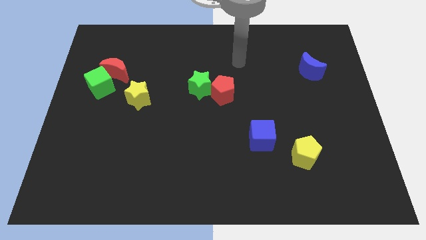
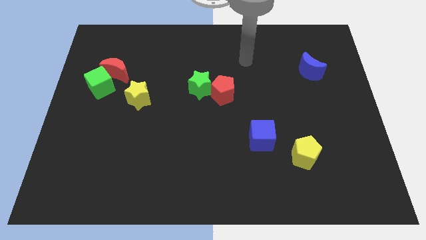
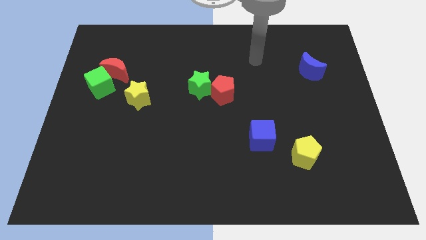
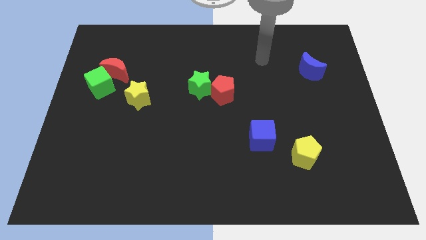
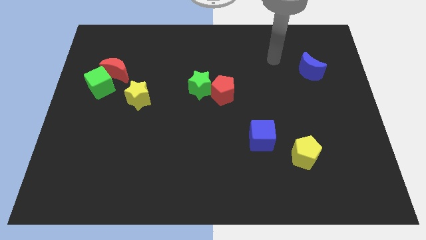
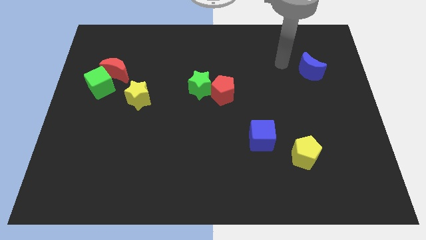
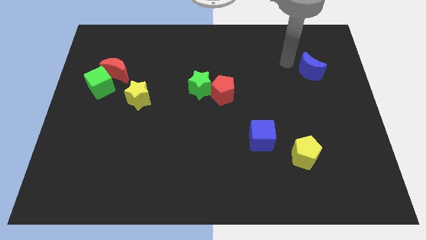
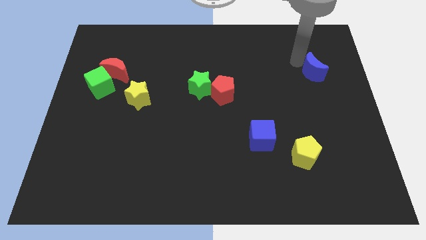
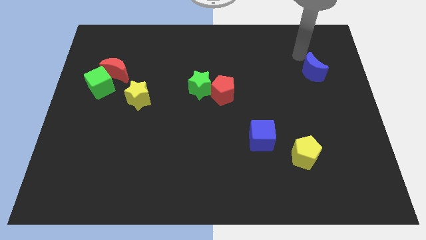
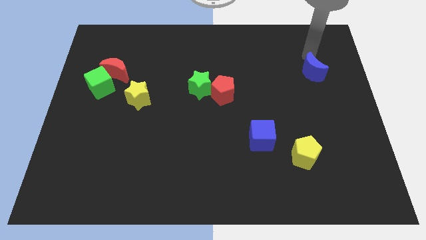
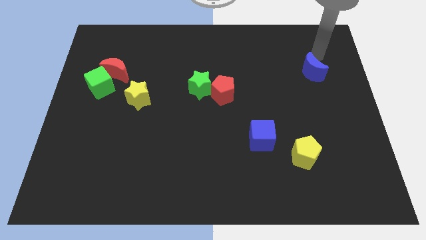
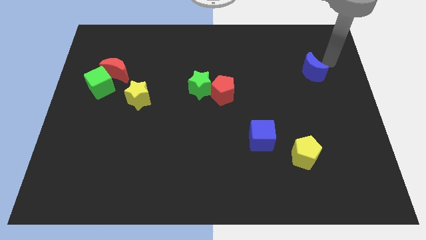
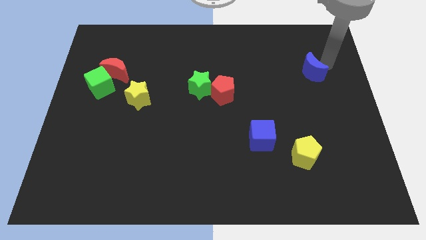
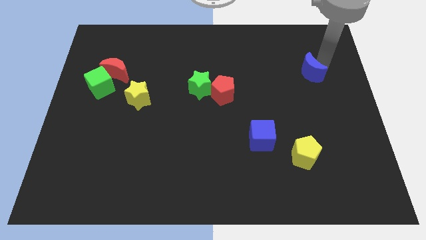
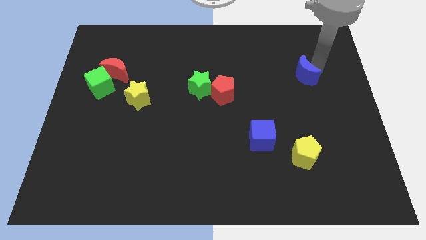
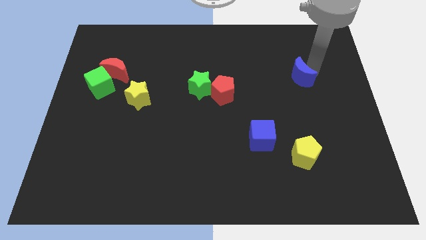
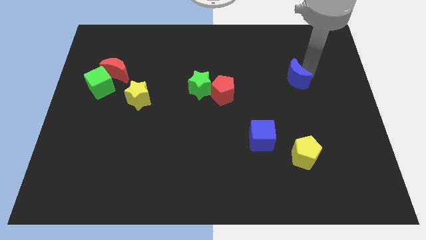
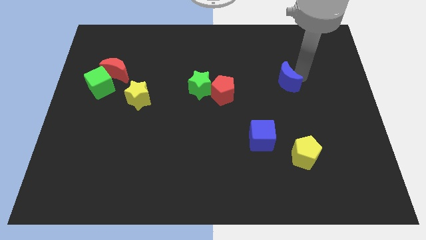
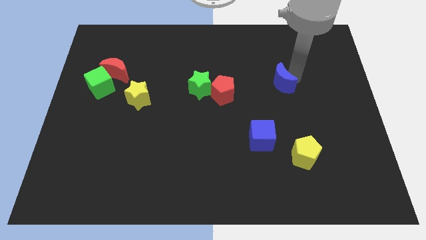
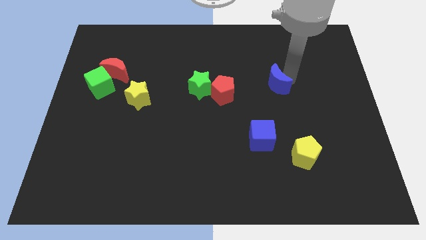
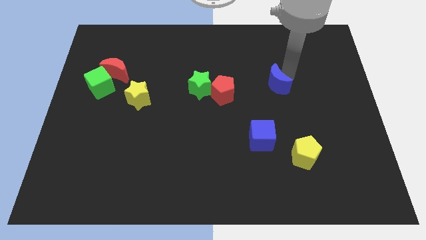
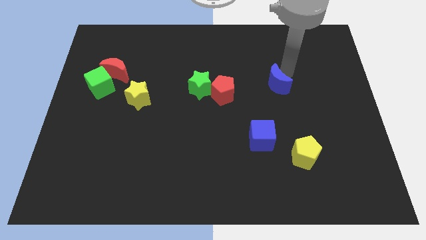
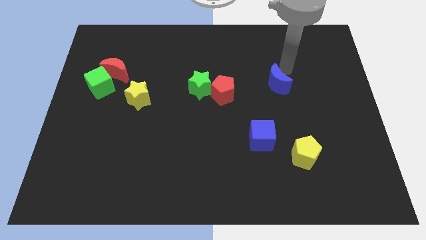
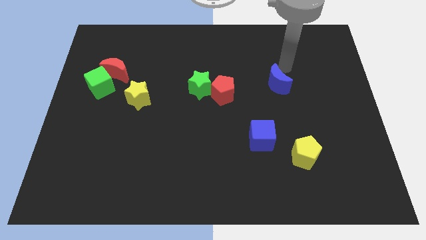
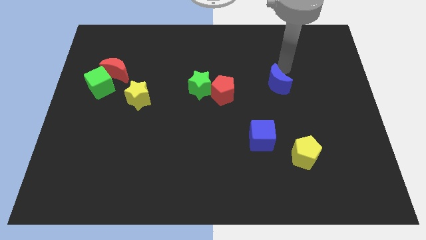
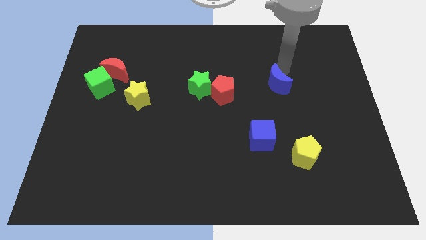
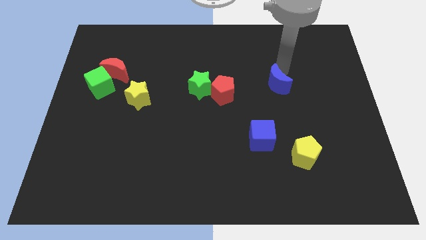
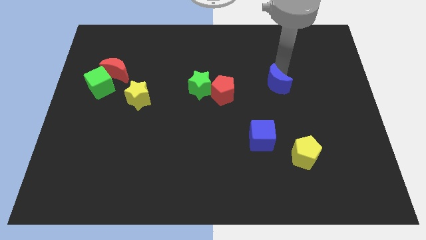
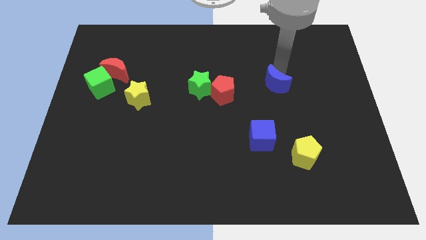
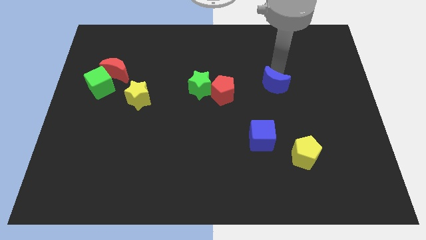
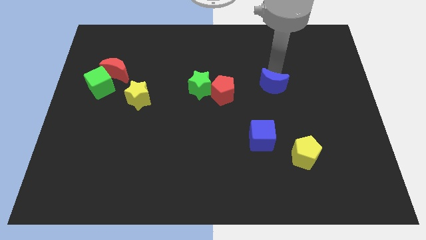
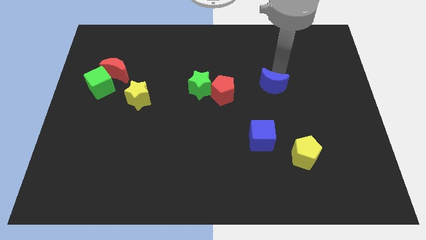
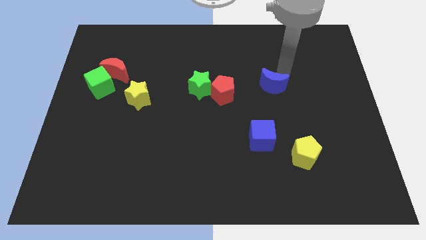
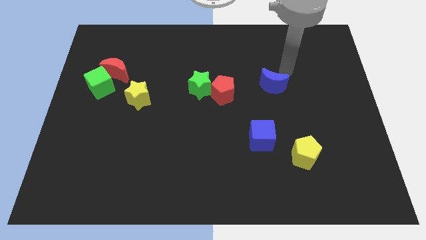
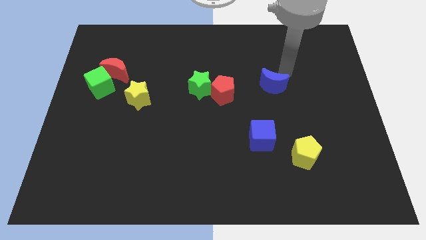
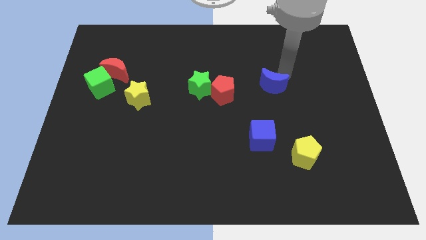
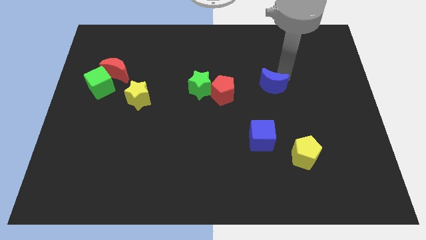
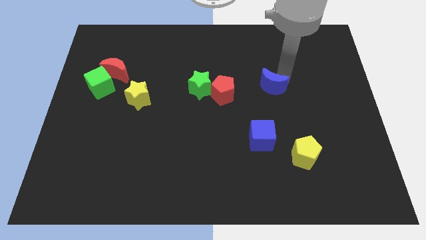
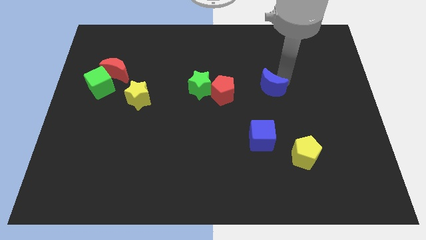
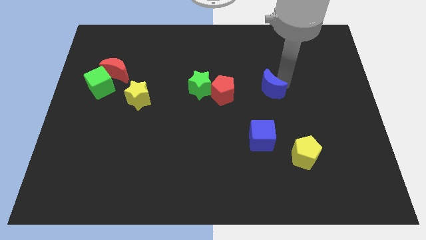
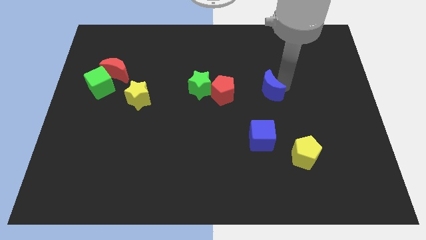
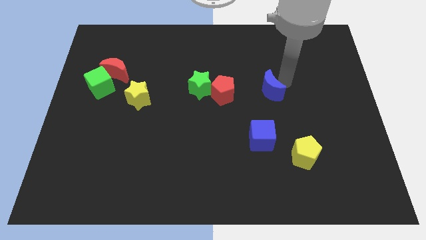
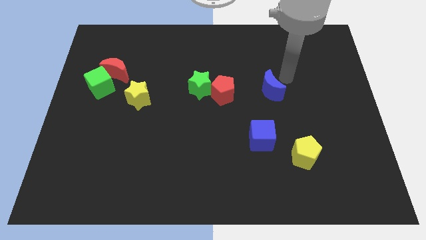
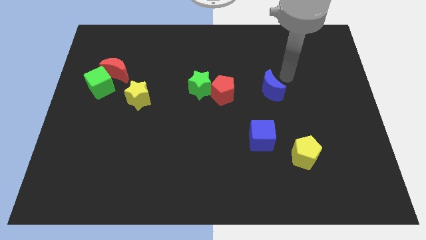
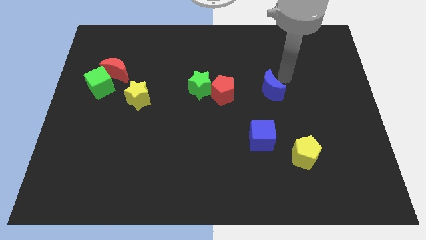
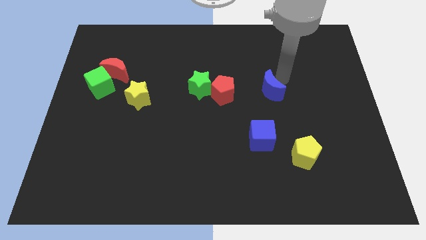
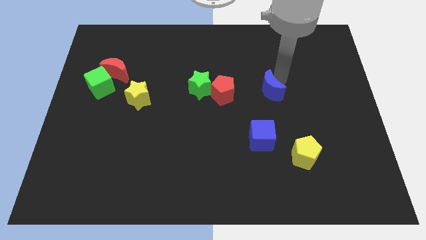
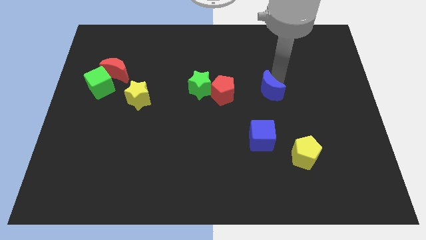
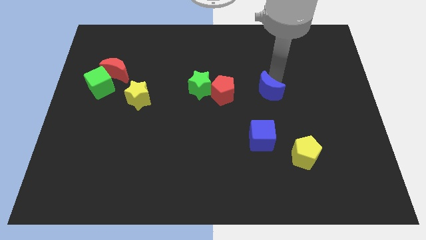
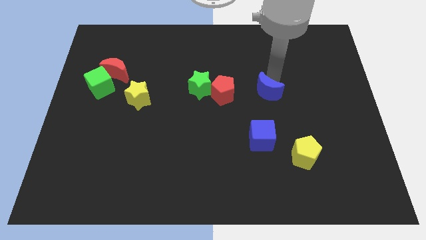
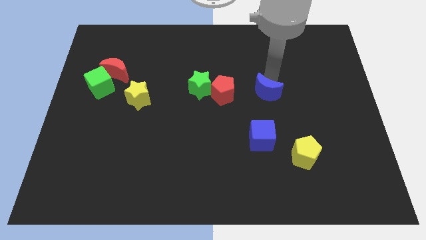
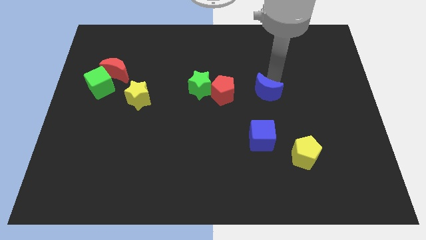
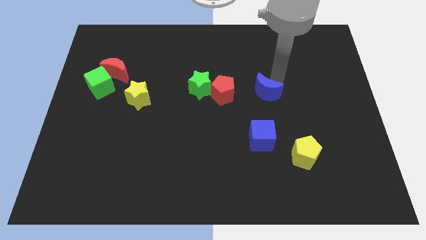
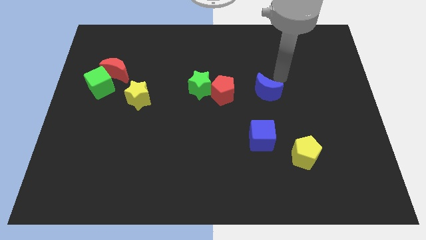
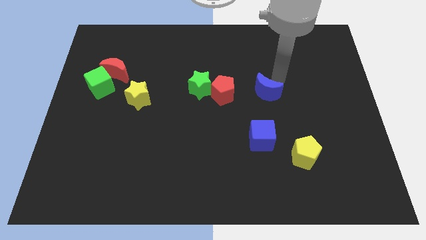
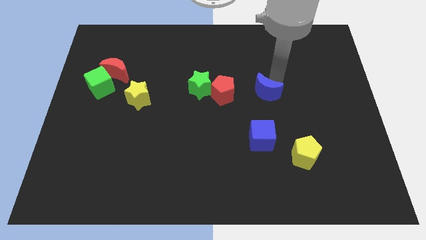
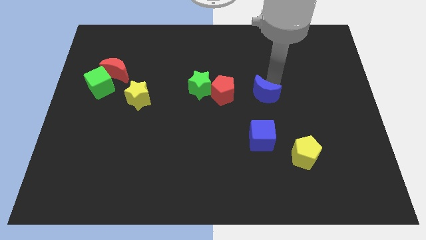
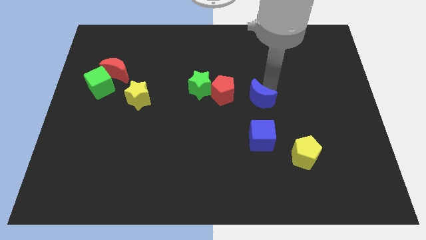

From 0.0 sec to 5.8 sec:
put the blue moon diagonally down and to the right of the red pentagon

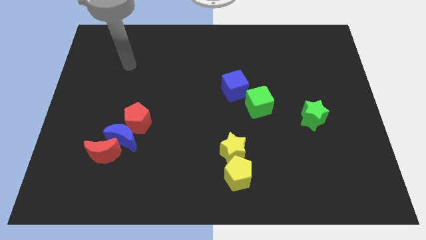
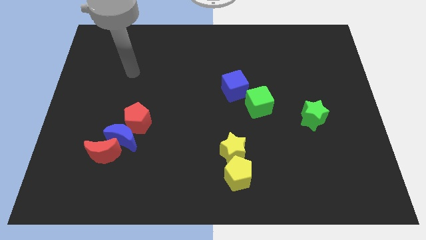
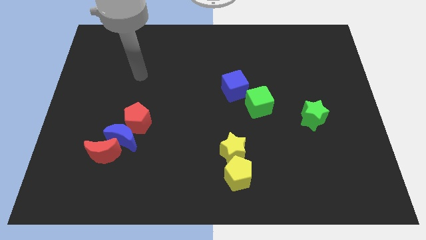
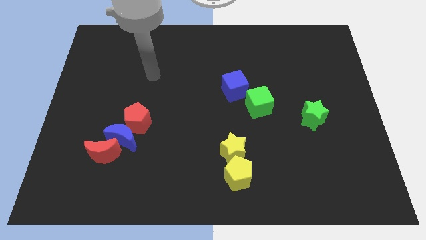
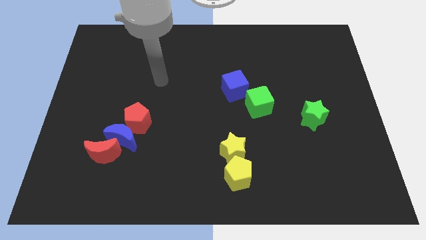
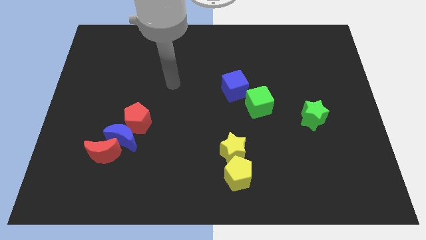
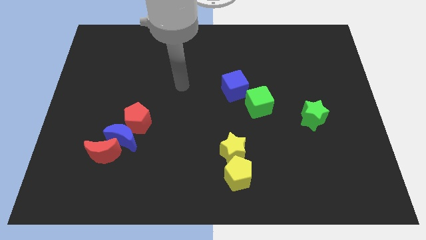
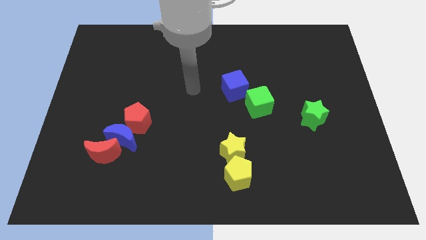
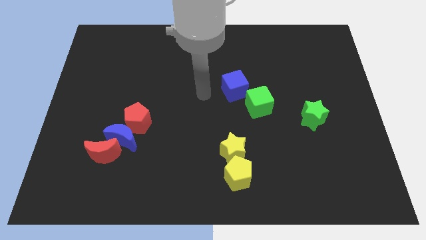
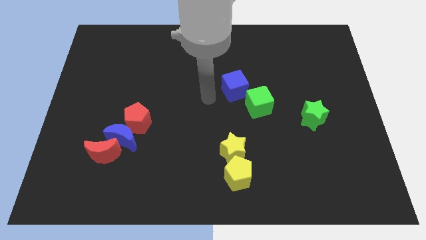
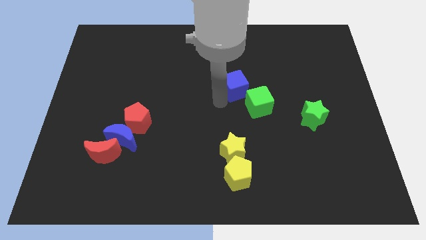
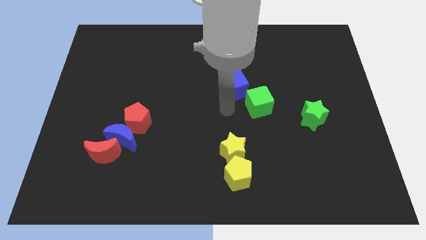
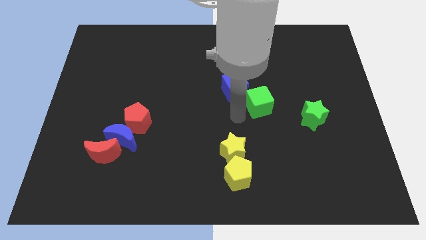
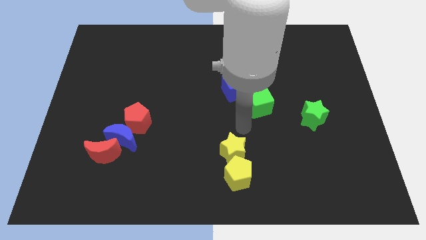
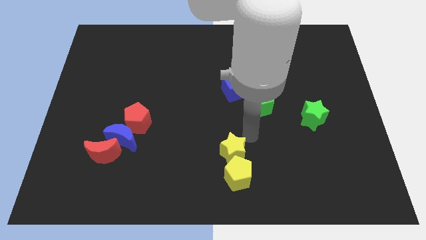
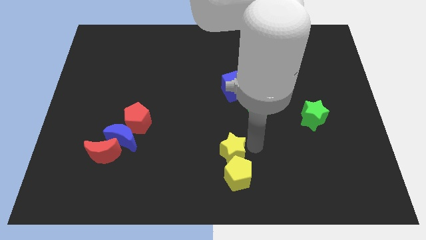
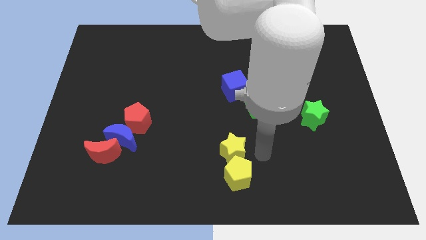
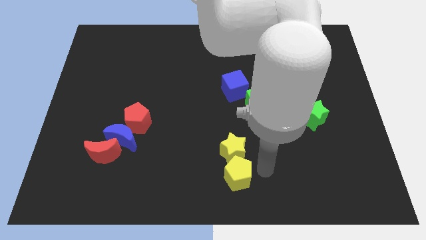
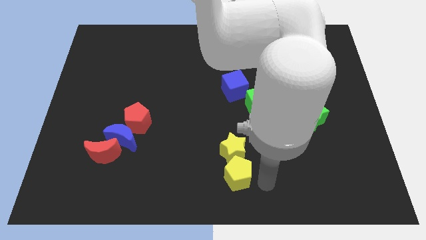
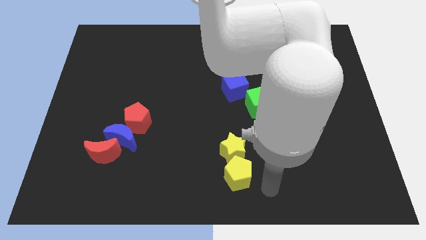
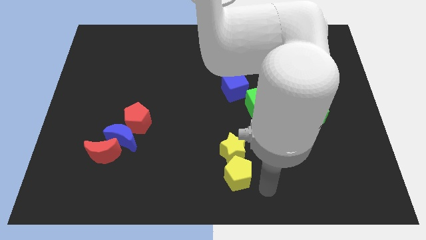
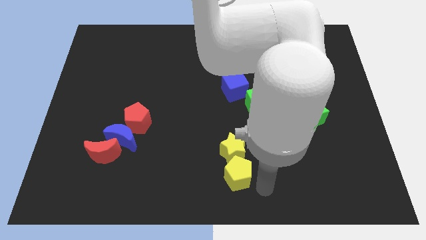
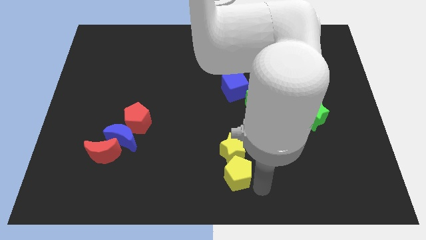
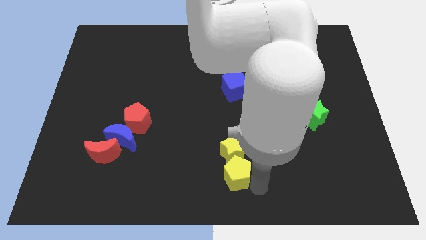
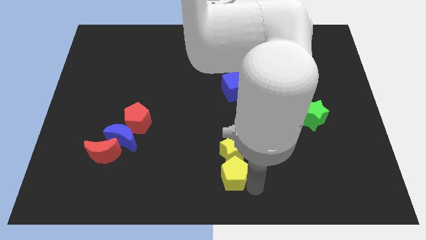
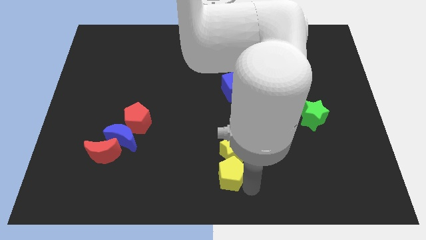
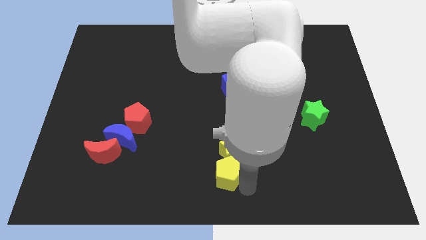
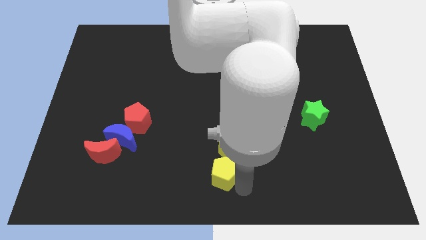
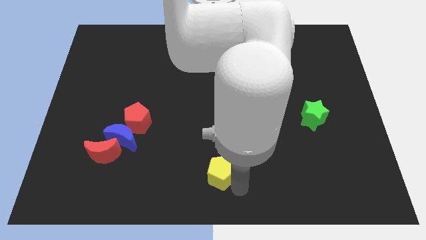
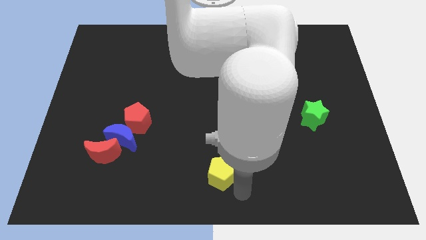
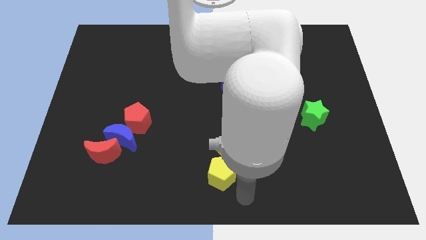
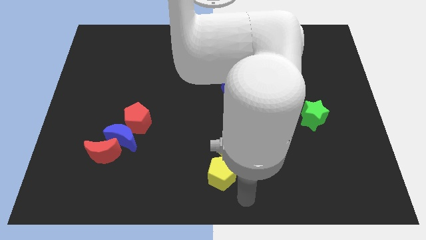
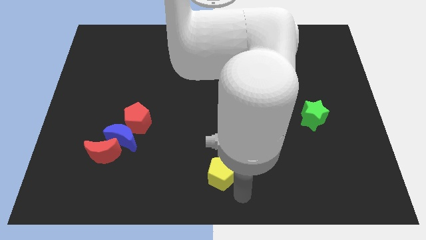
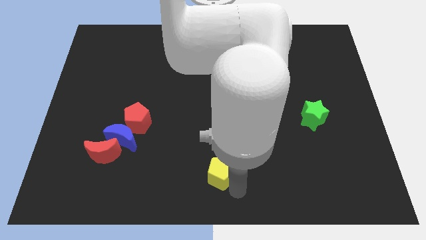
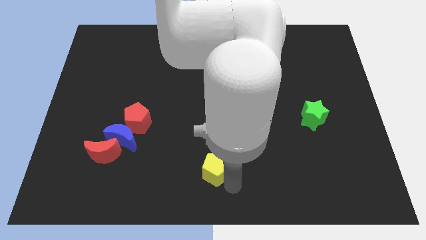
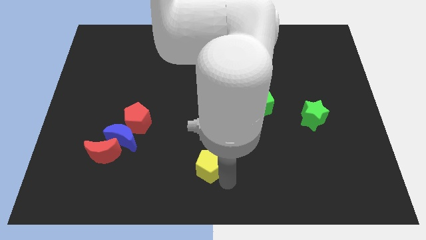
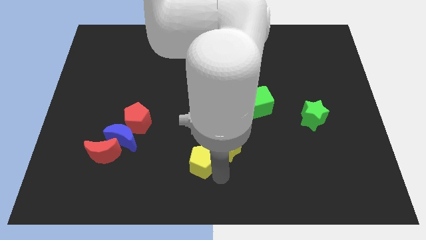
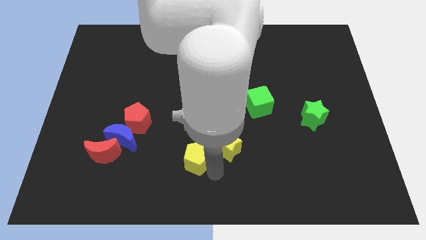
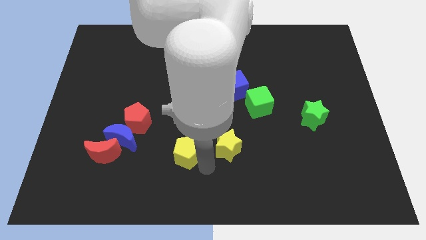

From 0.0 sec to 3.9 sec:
move the yellow pentagon right of the blue moon
